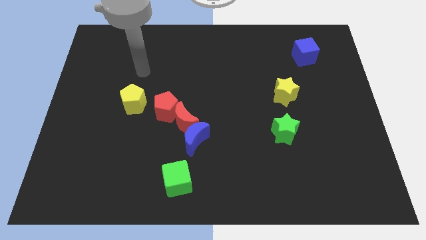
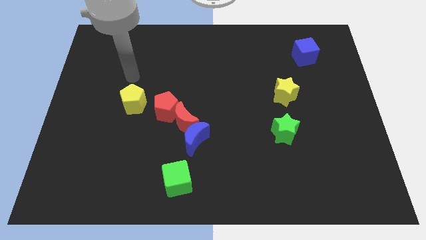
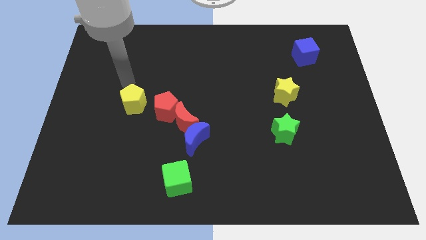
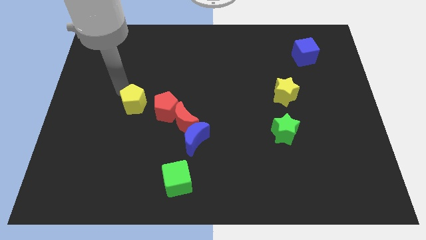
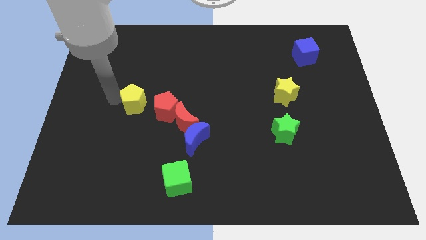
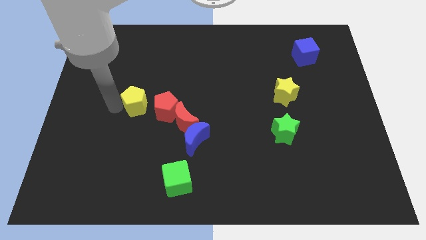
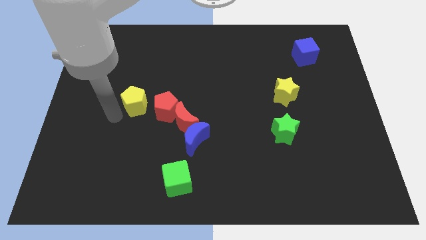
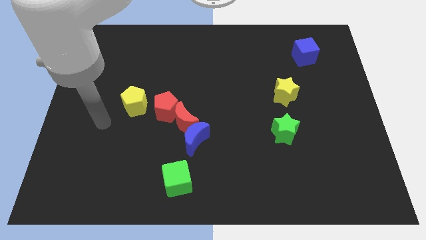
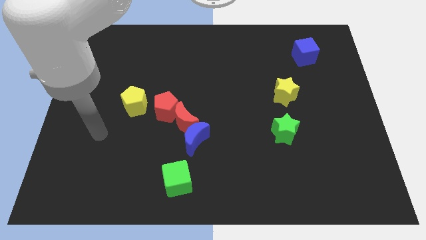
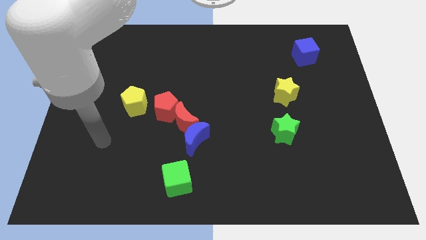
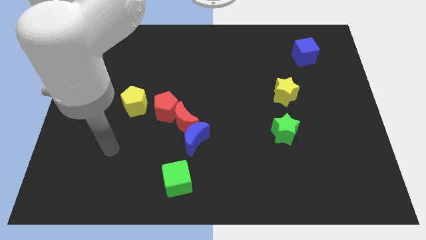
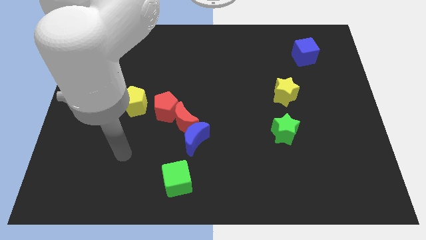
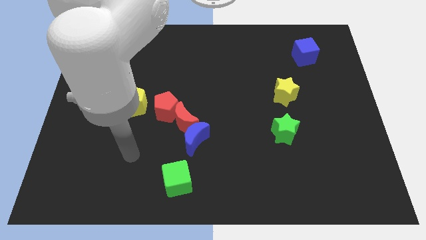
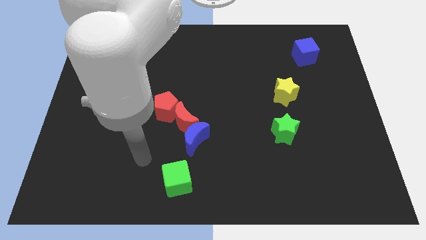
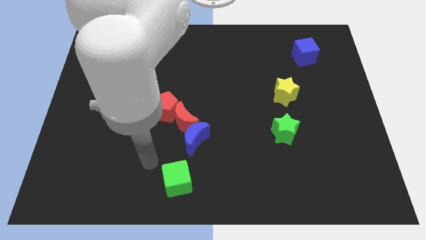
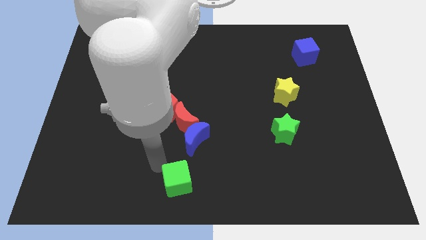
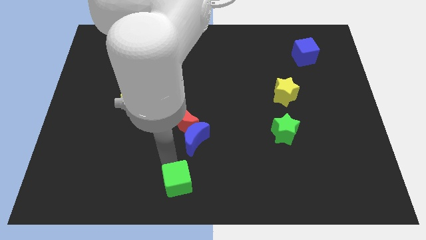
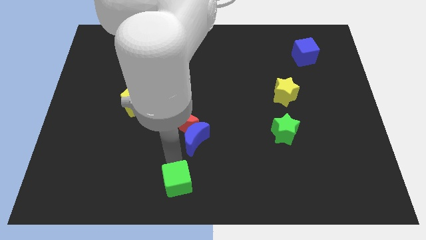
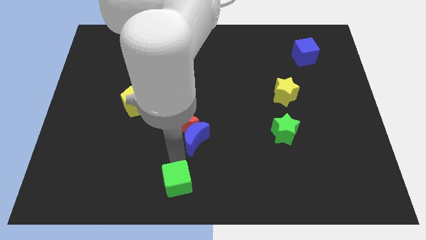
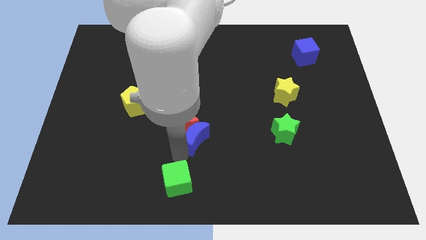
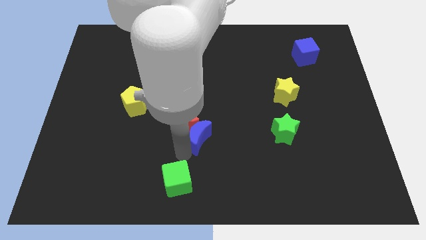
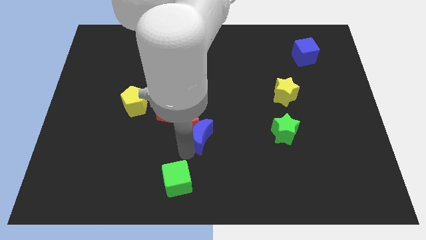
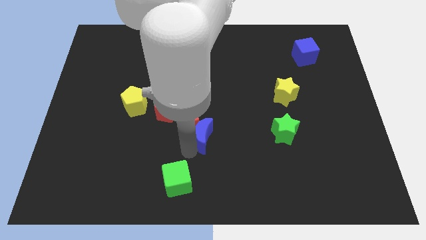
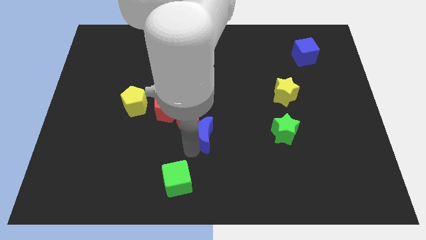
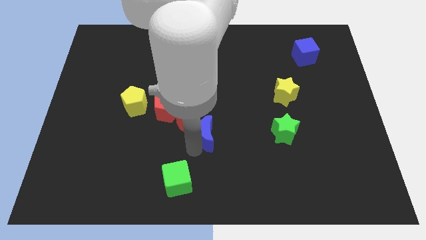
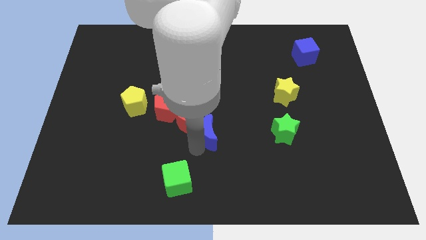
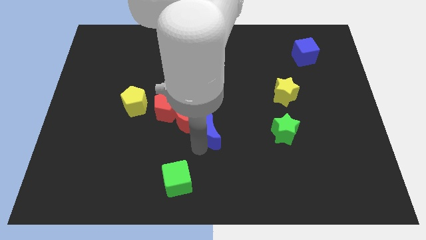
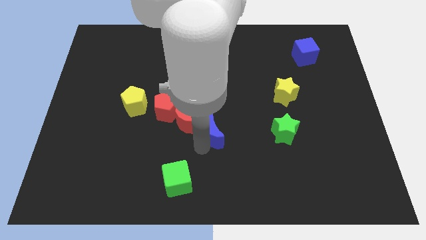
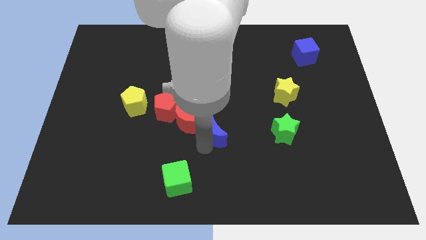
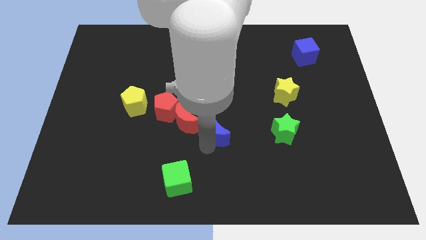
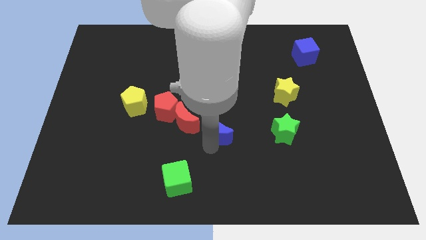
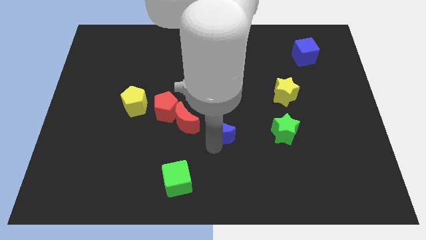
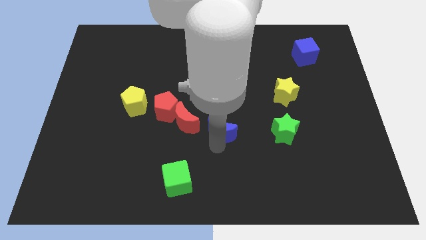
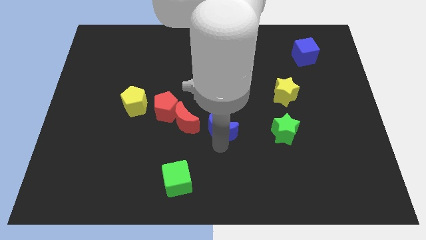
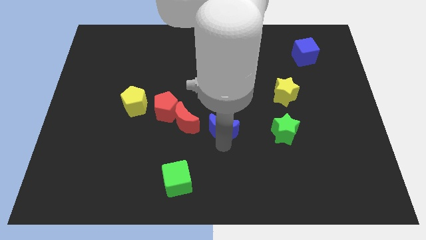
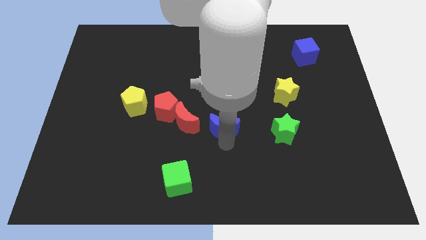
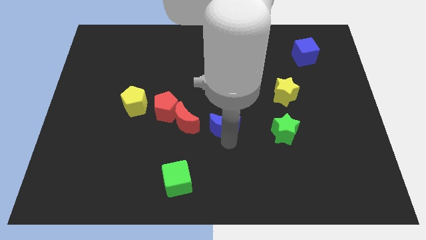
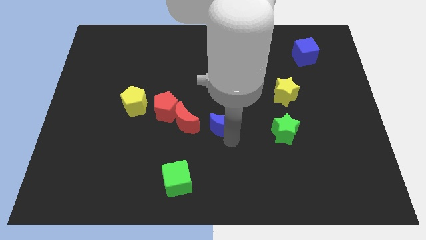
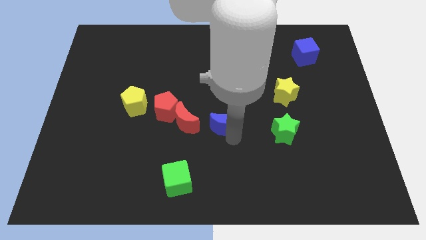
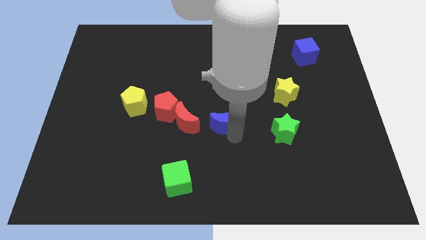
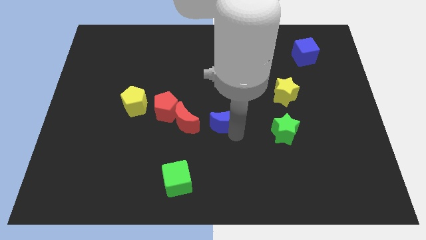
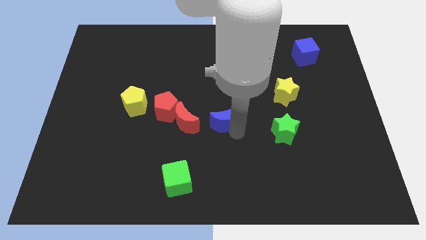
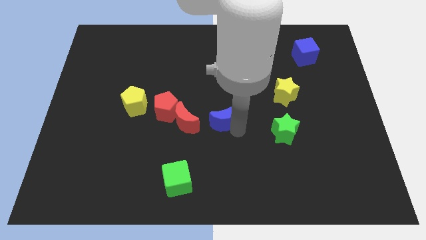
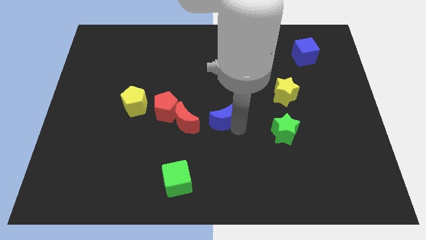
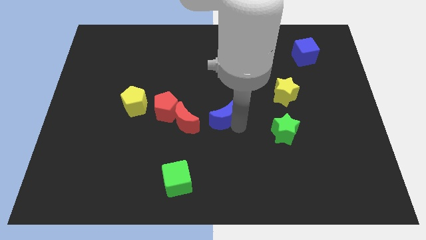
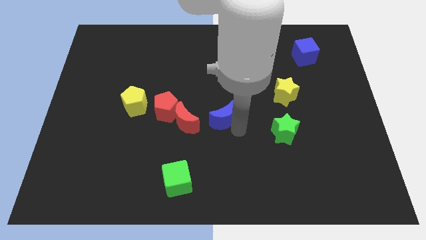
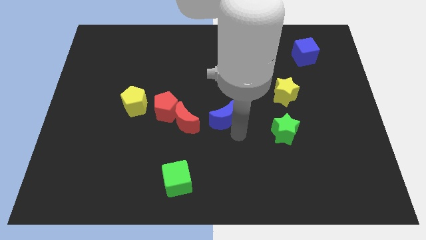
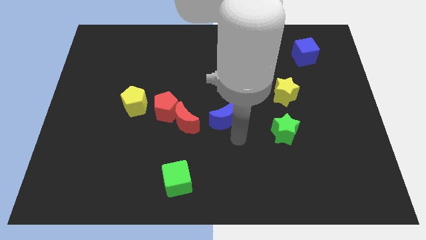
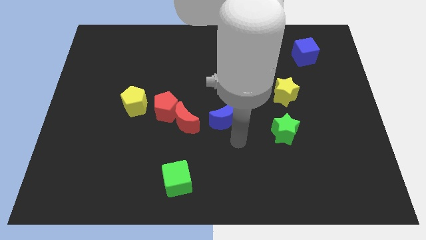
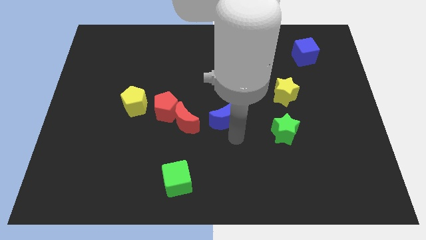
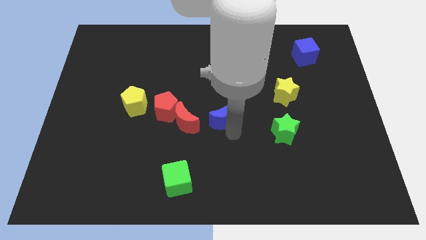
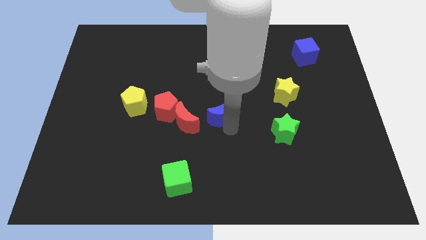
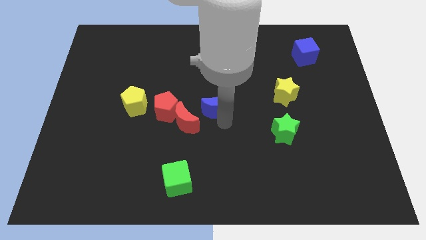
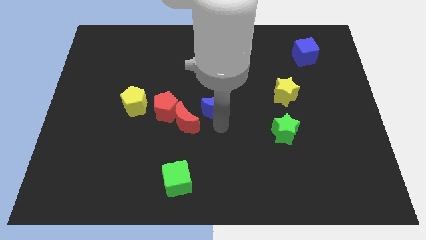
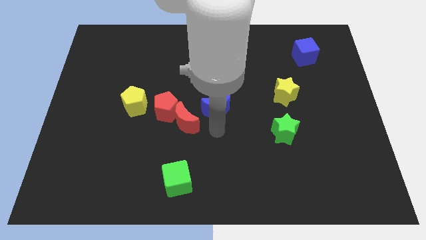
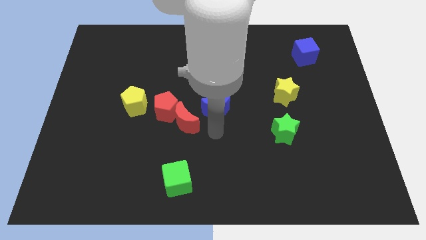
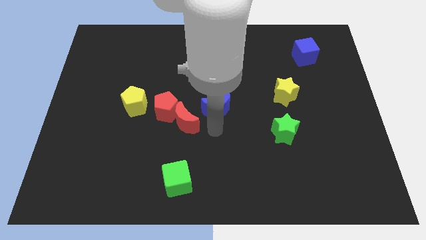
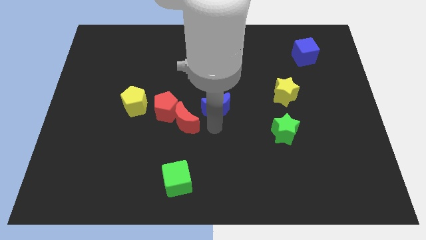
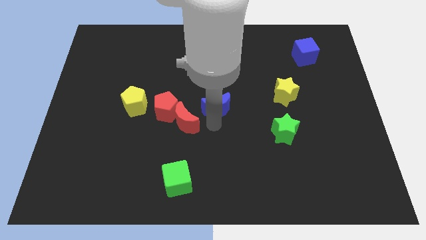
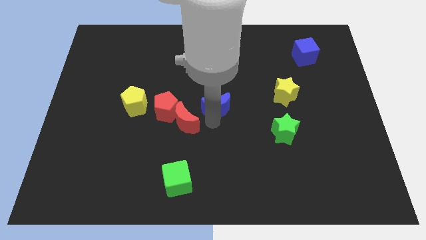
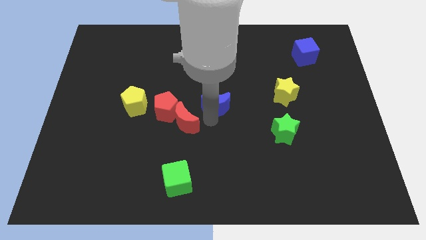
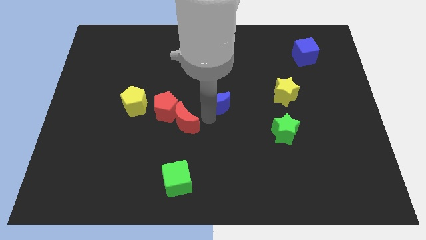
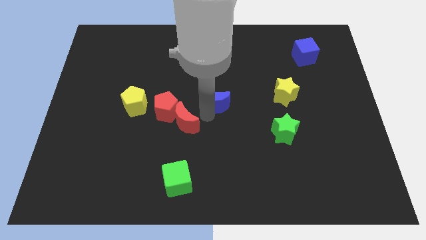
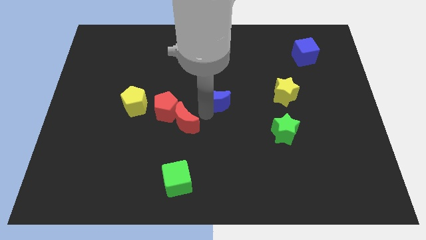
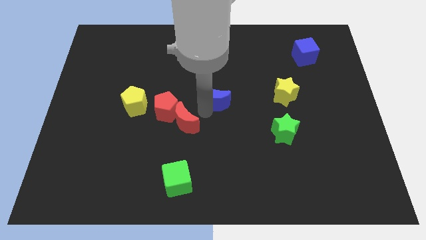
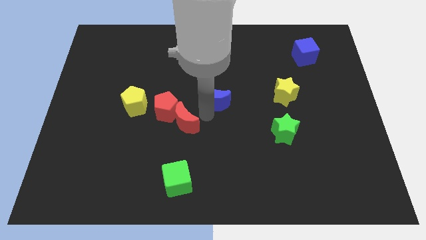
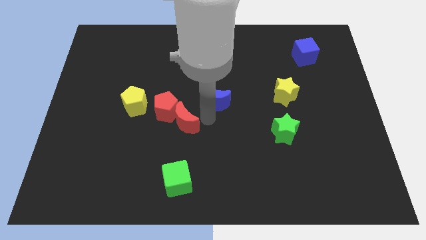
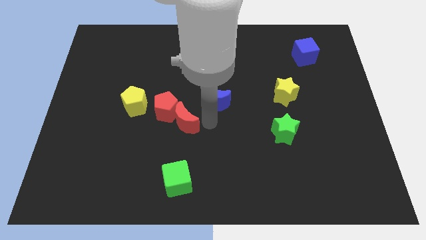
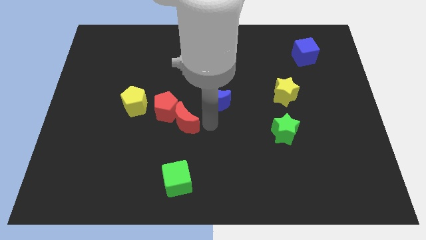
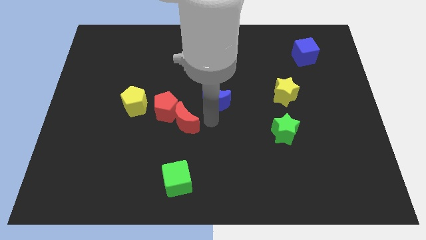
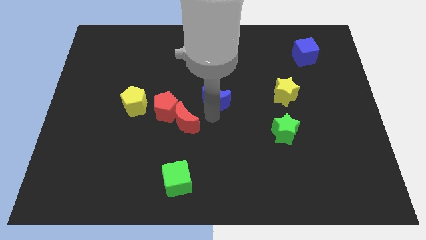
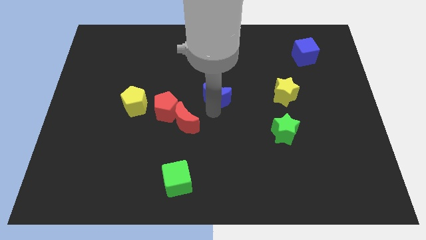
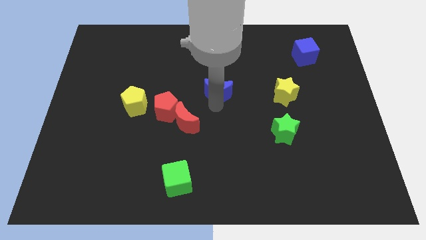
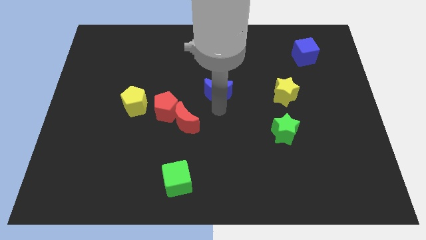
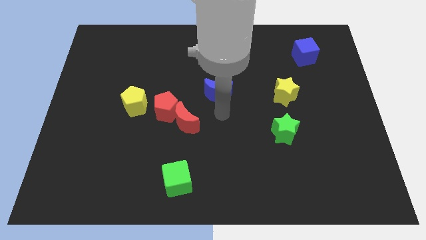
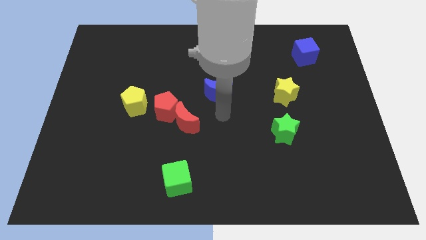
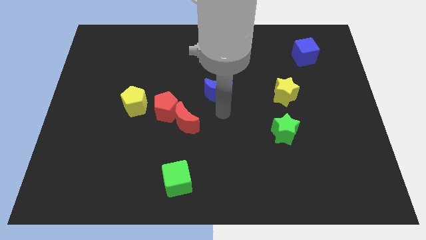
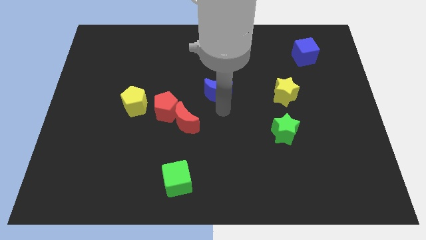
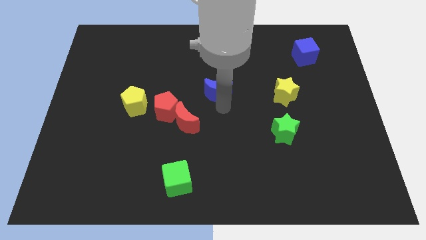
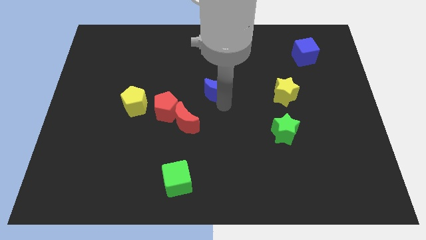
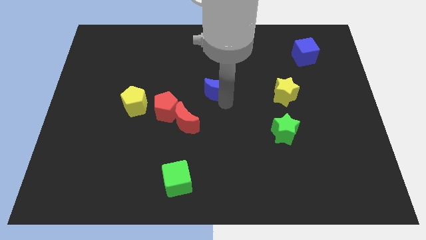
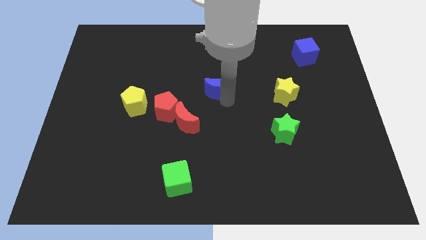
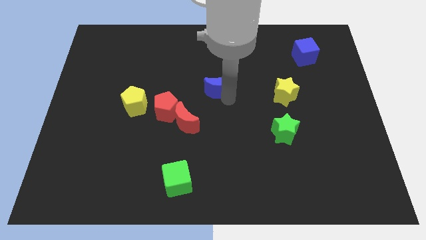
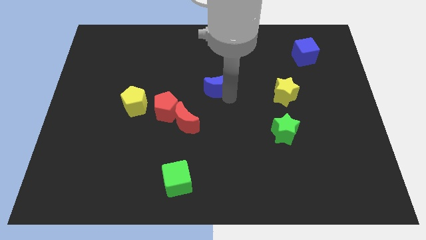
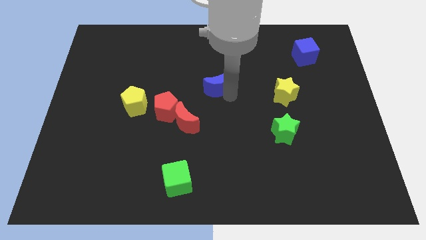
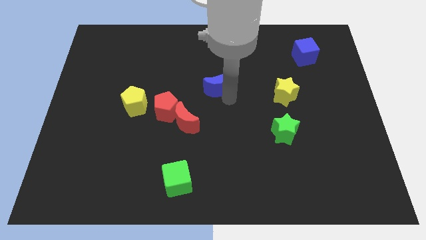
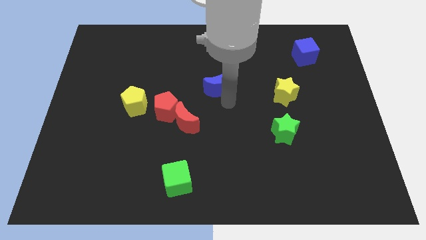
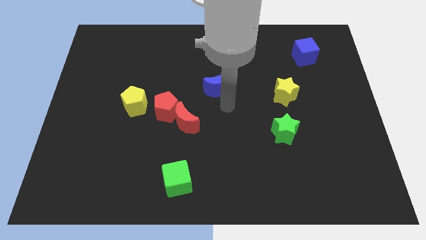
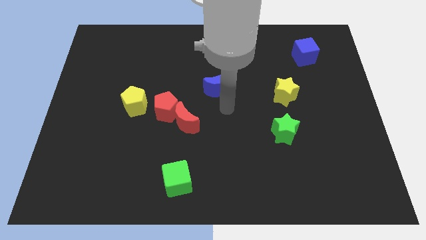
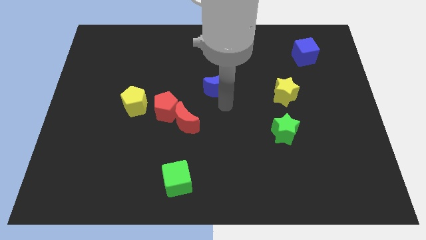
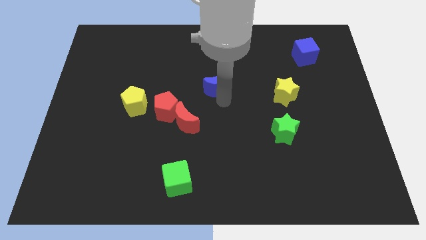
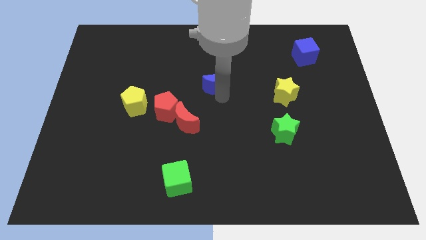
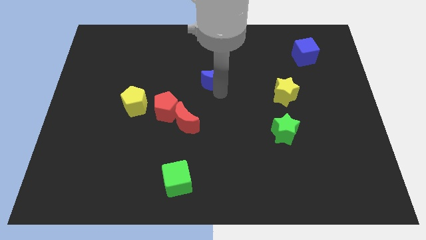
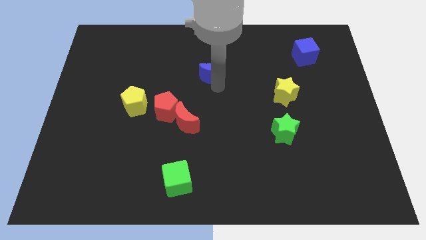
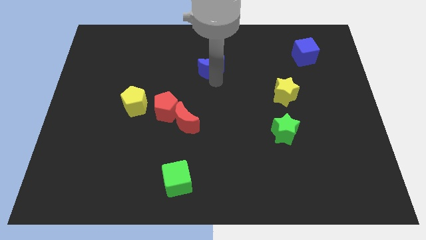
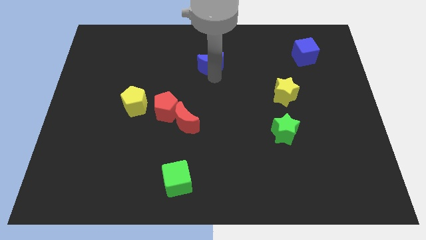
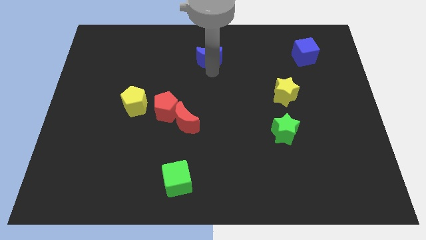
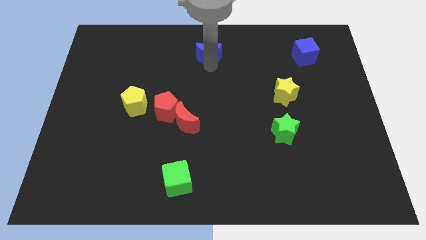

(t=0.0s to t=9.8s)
put the blue moon to the top
